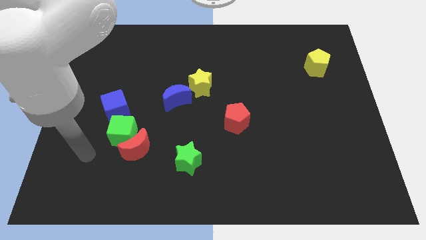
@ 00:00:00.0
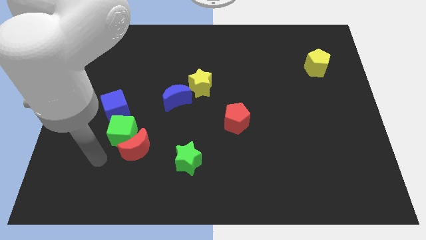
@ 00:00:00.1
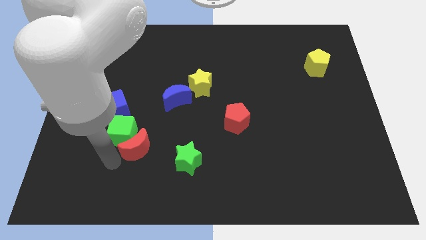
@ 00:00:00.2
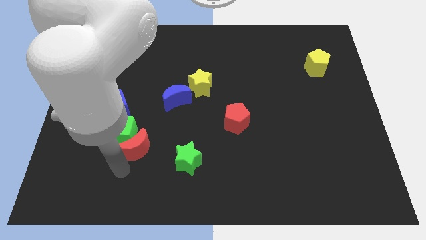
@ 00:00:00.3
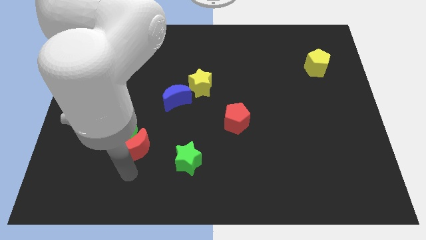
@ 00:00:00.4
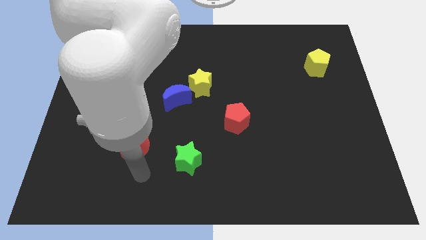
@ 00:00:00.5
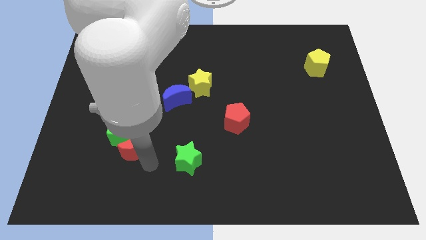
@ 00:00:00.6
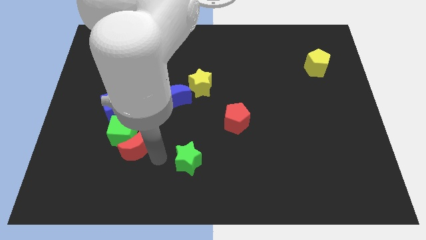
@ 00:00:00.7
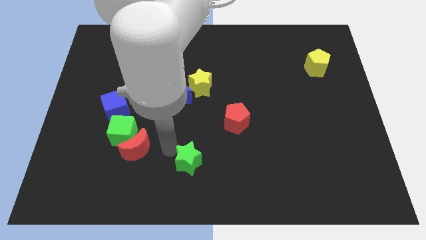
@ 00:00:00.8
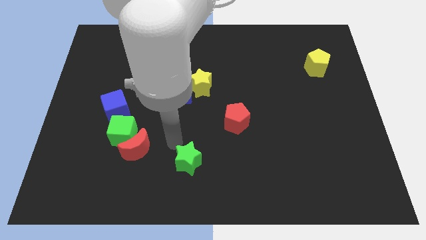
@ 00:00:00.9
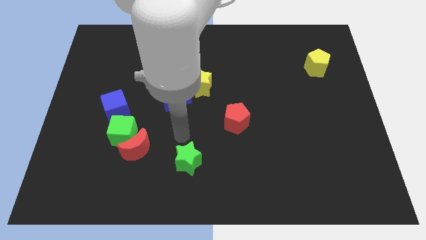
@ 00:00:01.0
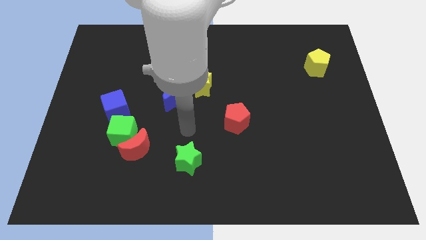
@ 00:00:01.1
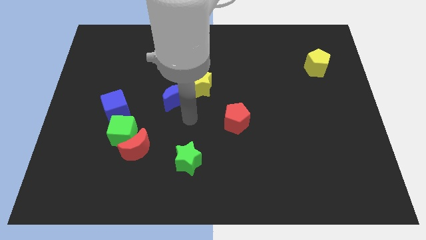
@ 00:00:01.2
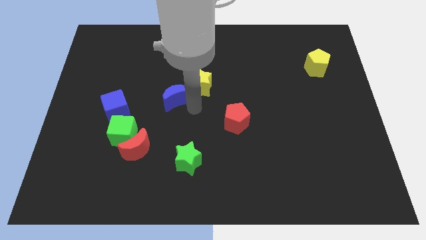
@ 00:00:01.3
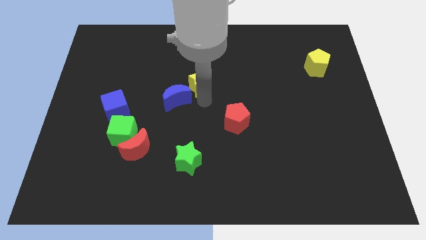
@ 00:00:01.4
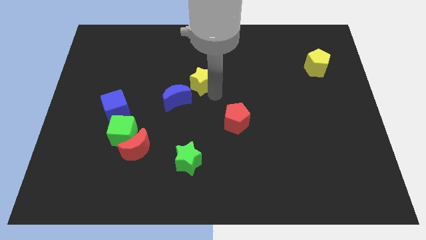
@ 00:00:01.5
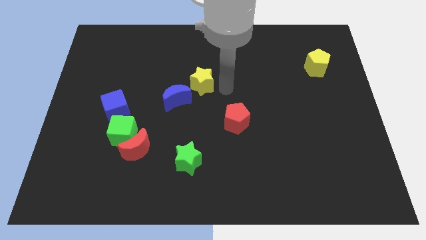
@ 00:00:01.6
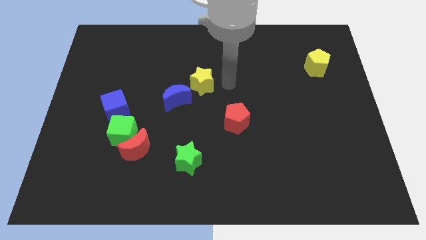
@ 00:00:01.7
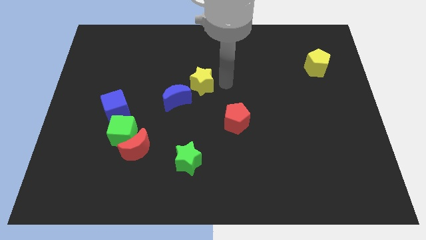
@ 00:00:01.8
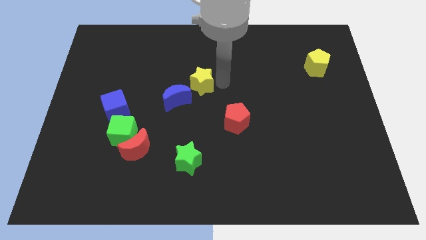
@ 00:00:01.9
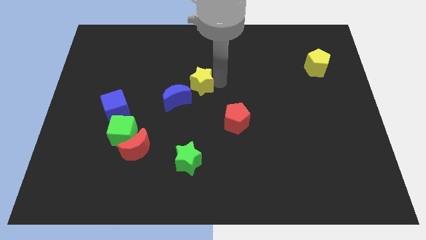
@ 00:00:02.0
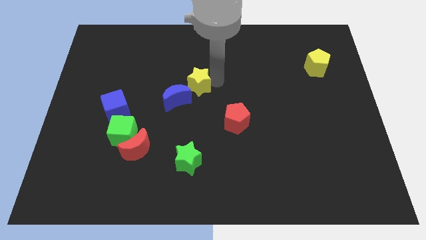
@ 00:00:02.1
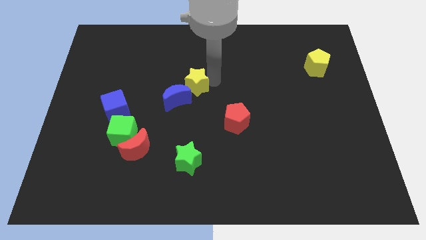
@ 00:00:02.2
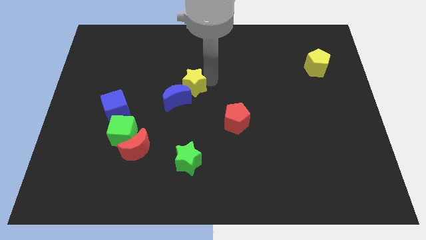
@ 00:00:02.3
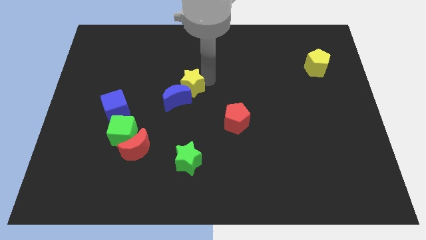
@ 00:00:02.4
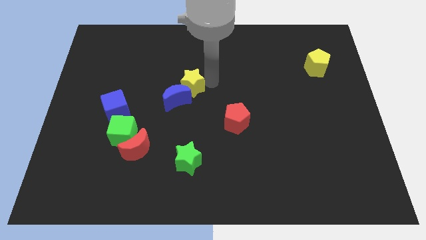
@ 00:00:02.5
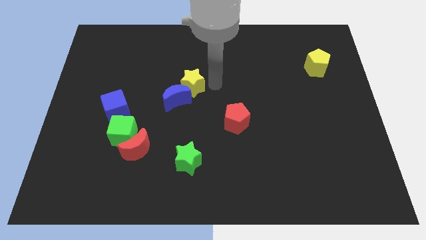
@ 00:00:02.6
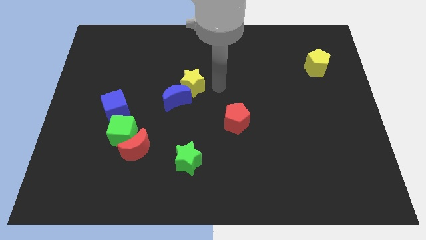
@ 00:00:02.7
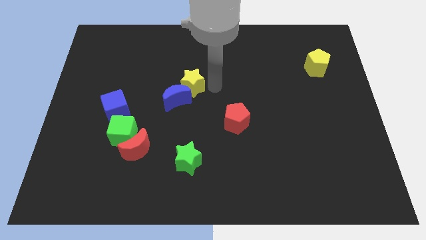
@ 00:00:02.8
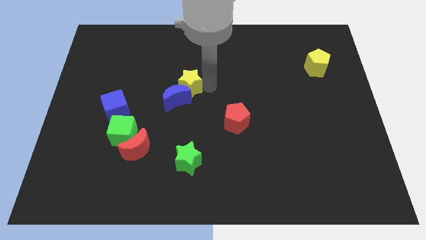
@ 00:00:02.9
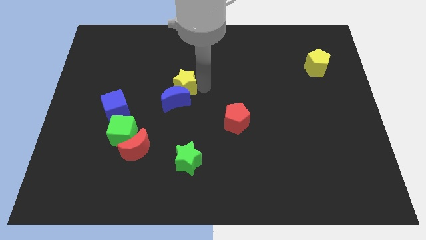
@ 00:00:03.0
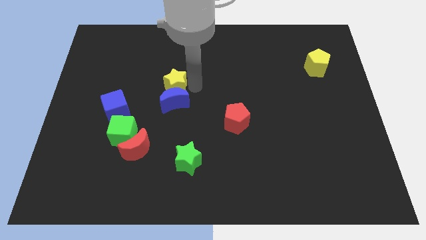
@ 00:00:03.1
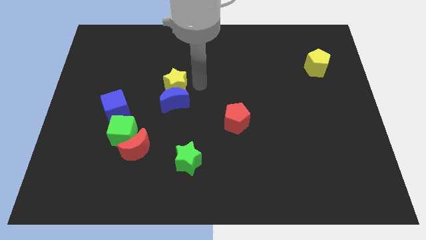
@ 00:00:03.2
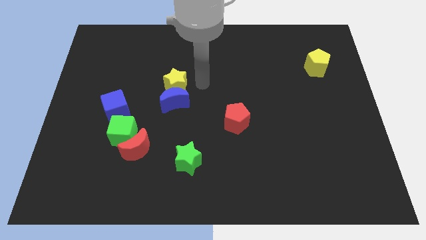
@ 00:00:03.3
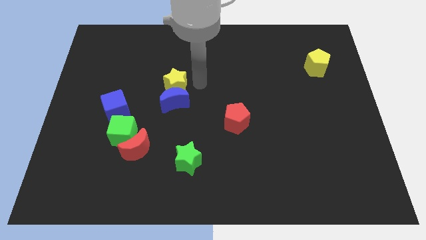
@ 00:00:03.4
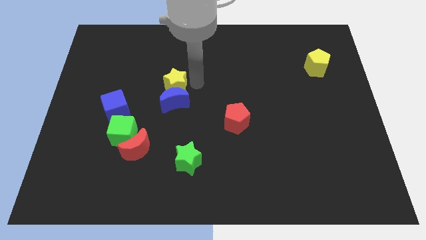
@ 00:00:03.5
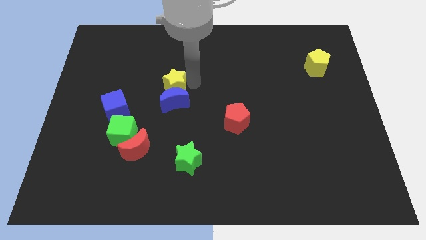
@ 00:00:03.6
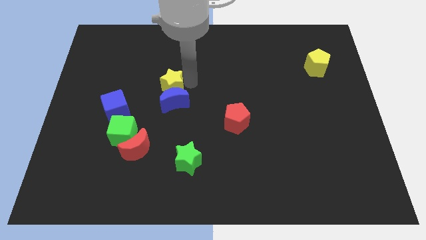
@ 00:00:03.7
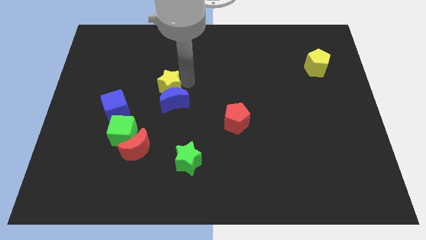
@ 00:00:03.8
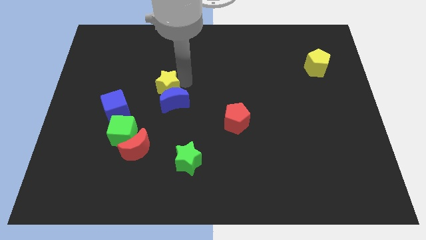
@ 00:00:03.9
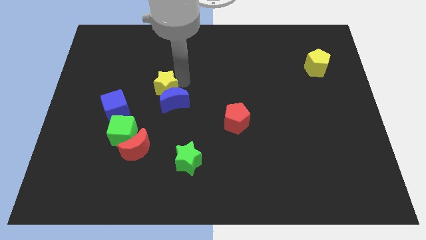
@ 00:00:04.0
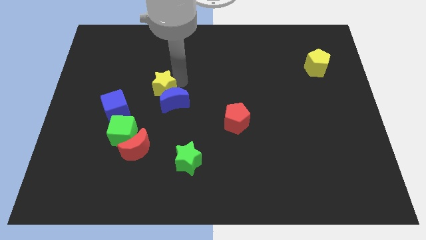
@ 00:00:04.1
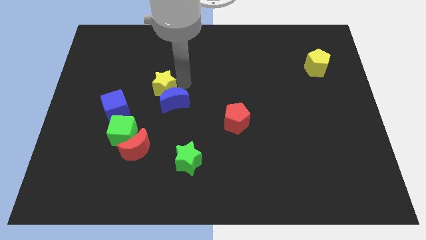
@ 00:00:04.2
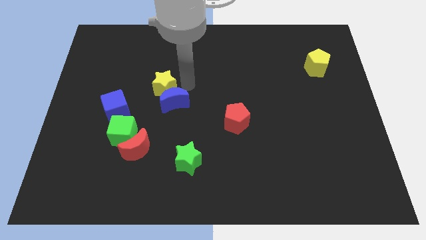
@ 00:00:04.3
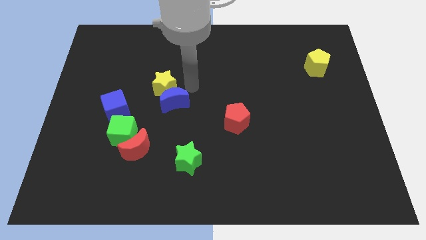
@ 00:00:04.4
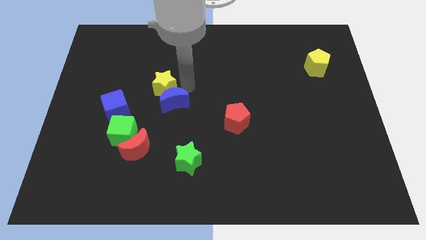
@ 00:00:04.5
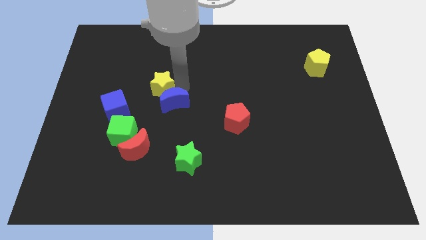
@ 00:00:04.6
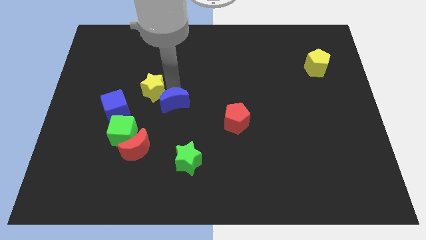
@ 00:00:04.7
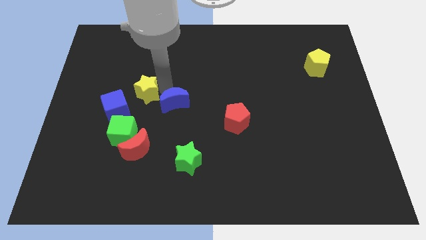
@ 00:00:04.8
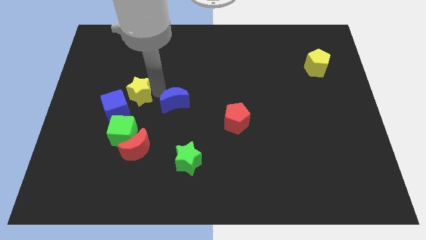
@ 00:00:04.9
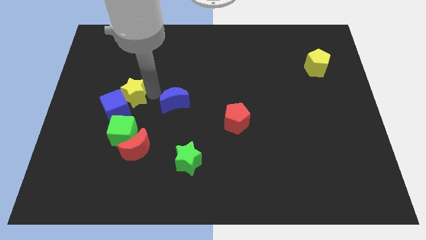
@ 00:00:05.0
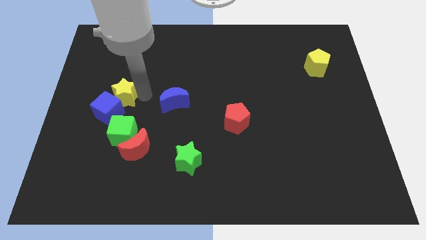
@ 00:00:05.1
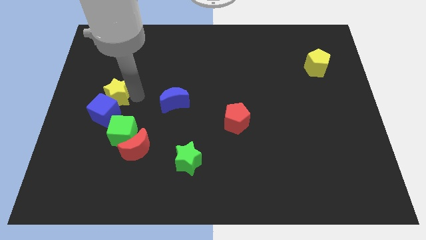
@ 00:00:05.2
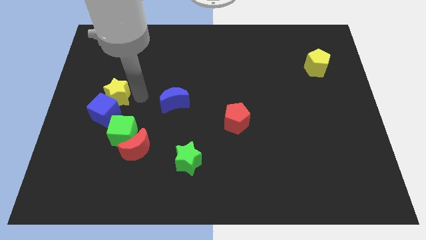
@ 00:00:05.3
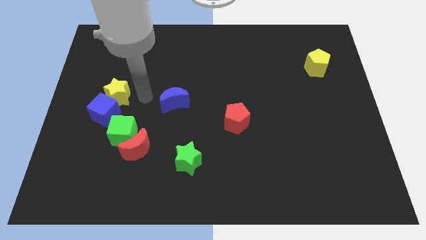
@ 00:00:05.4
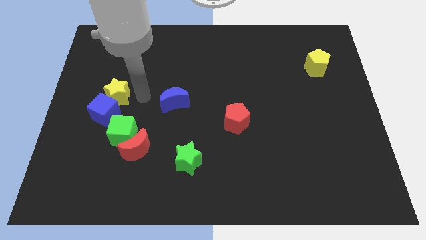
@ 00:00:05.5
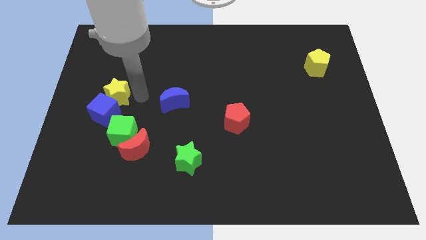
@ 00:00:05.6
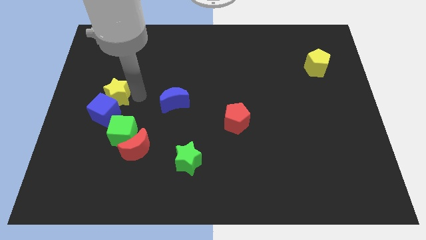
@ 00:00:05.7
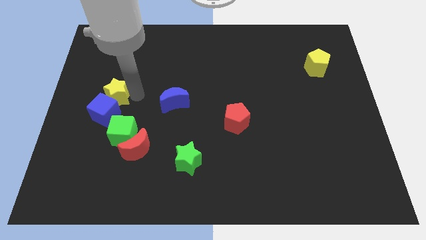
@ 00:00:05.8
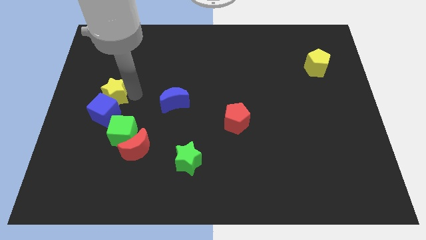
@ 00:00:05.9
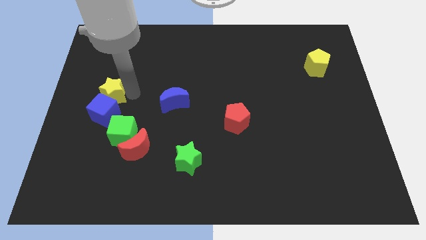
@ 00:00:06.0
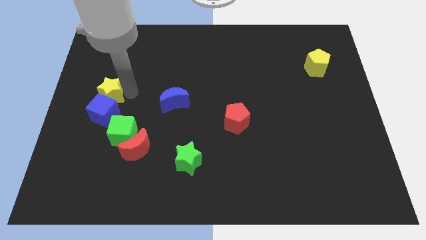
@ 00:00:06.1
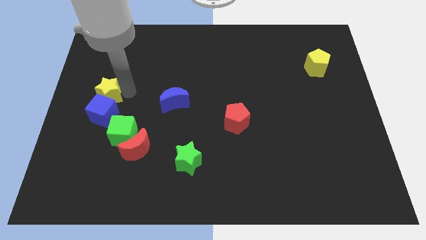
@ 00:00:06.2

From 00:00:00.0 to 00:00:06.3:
move the yellow star to the left side
